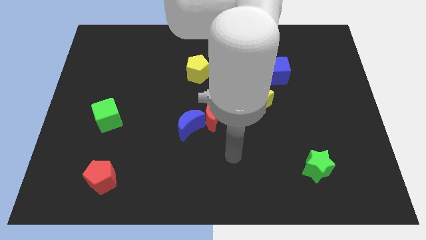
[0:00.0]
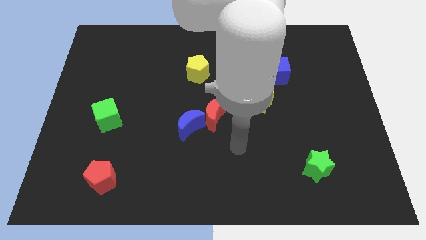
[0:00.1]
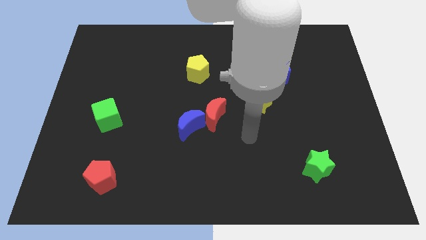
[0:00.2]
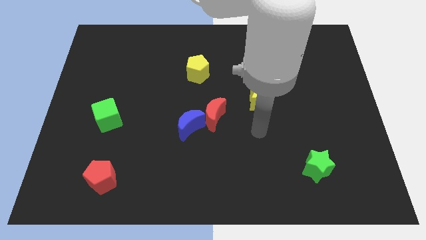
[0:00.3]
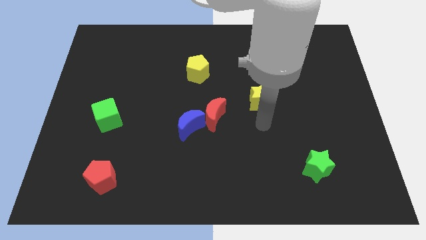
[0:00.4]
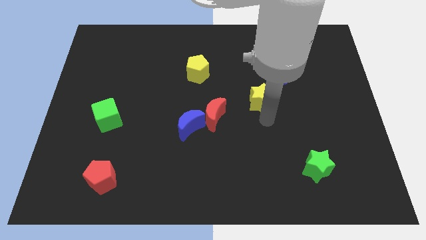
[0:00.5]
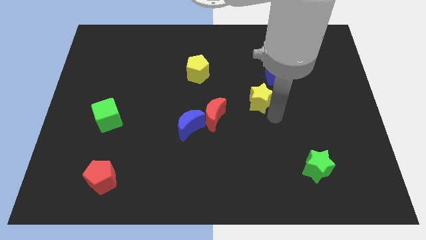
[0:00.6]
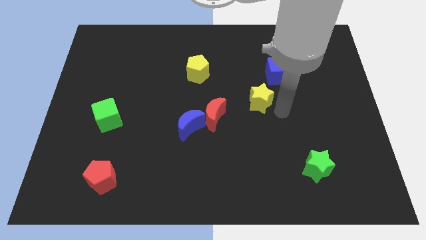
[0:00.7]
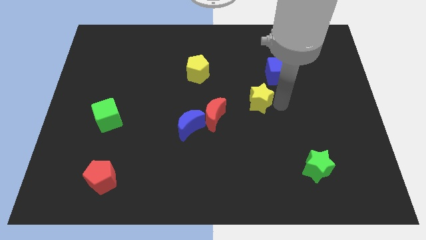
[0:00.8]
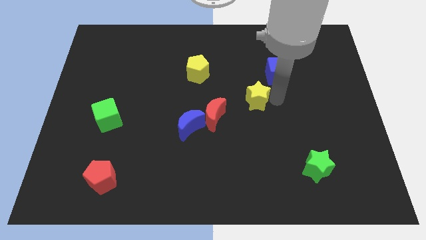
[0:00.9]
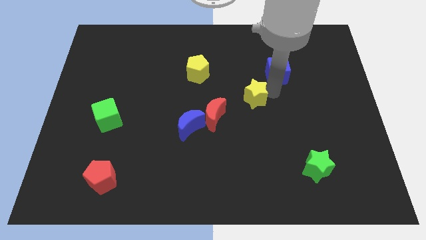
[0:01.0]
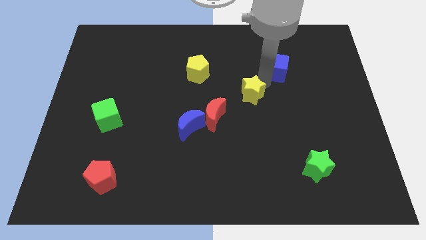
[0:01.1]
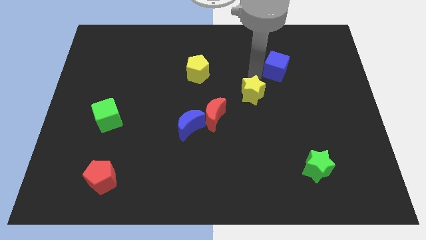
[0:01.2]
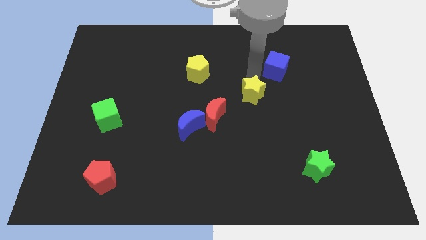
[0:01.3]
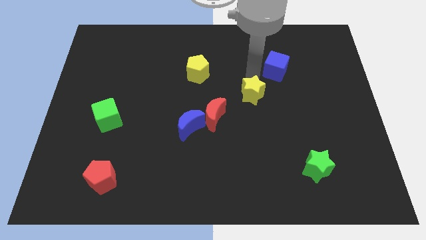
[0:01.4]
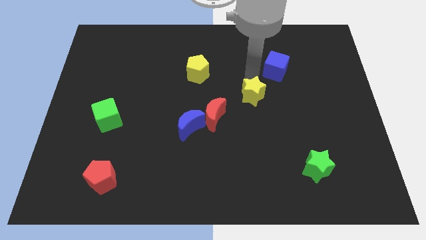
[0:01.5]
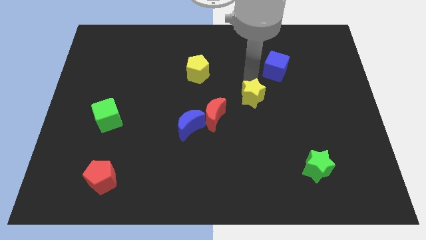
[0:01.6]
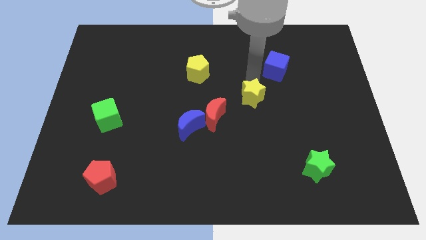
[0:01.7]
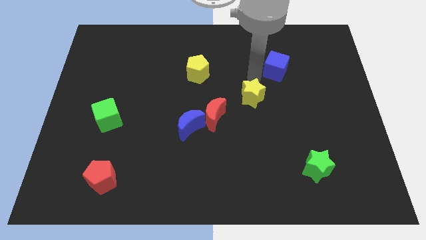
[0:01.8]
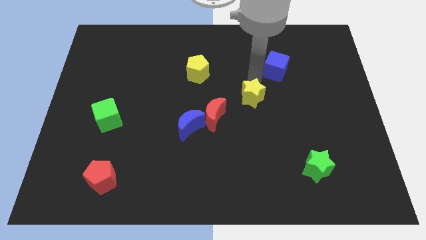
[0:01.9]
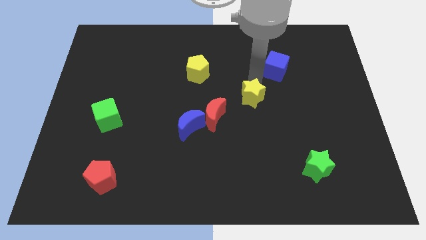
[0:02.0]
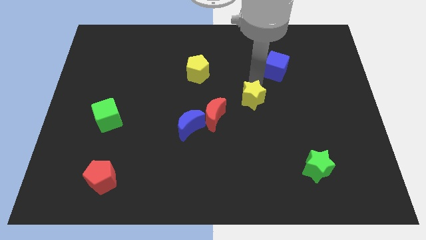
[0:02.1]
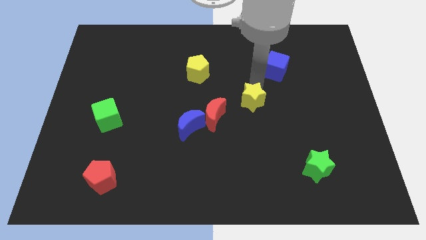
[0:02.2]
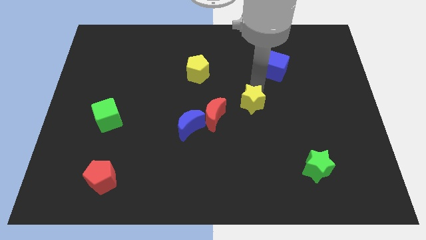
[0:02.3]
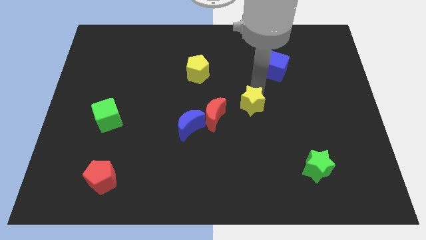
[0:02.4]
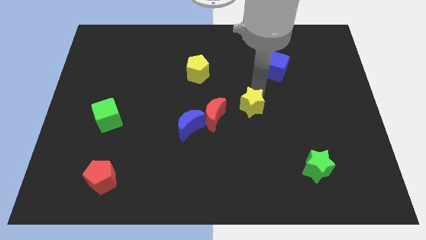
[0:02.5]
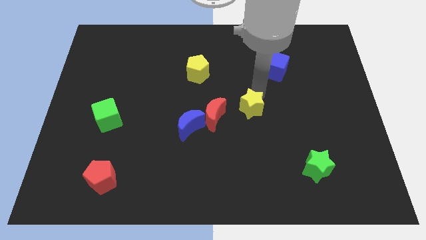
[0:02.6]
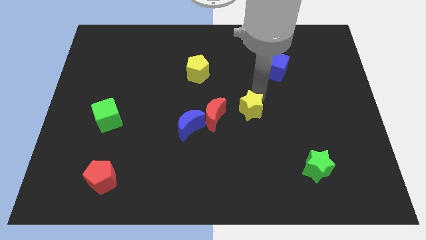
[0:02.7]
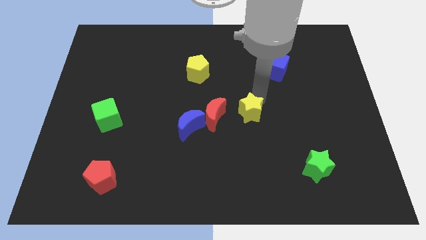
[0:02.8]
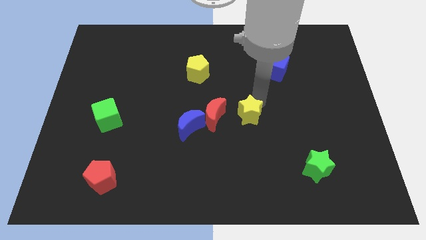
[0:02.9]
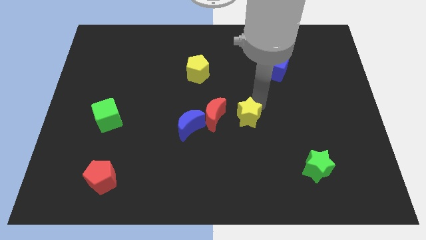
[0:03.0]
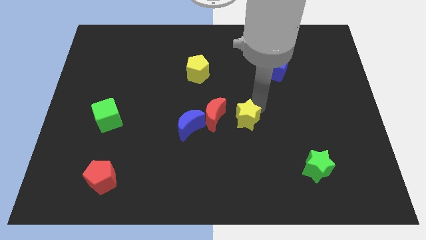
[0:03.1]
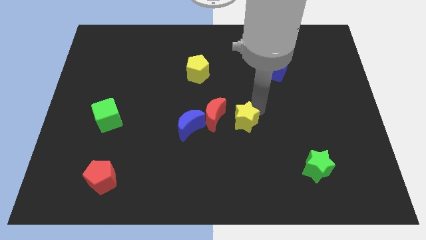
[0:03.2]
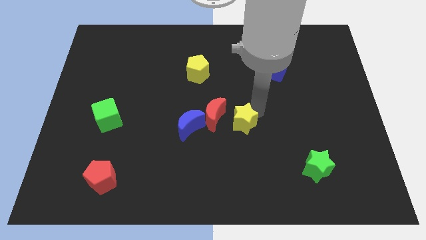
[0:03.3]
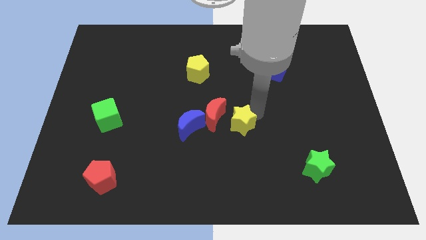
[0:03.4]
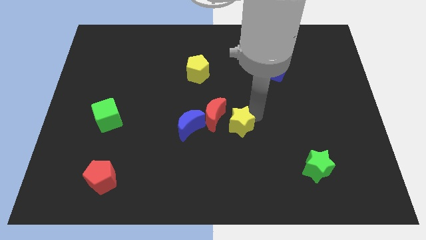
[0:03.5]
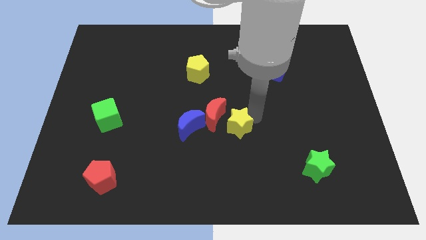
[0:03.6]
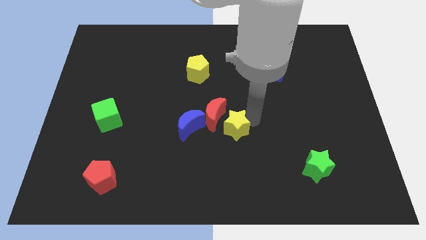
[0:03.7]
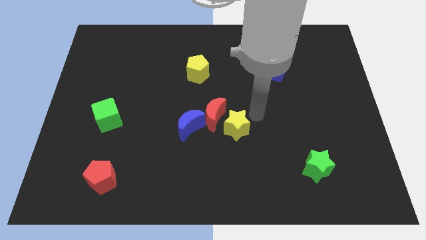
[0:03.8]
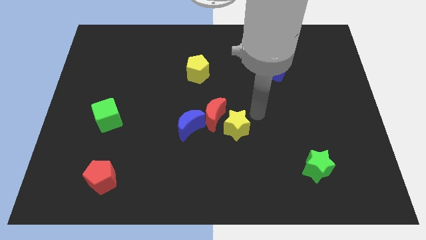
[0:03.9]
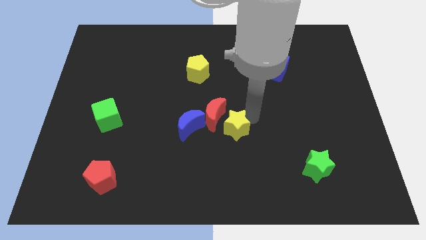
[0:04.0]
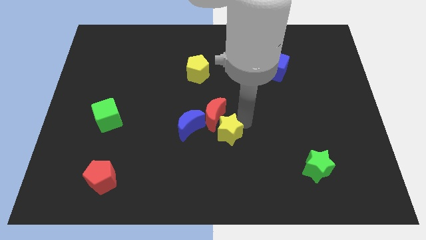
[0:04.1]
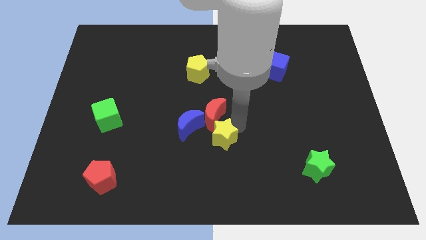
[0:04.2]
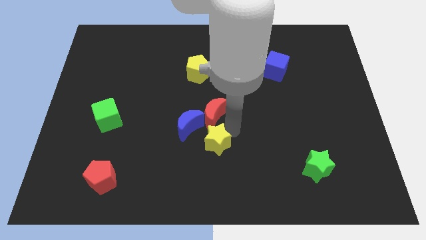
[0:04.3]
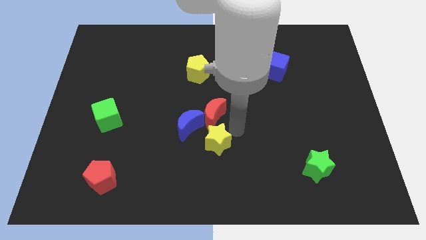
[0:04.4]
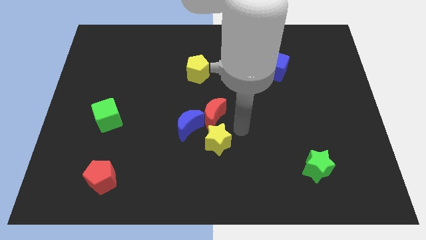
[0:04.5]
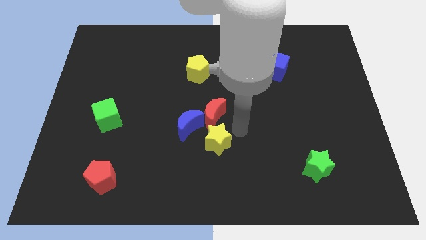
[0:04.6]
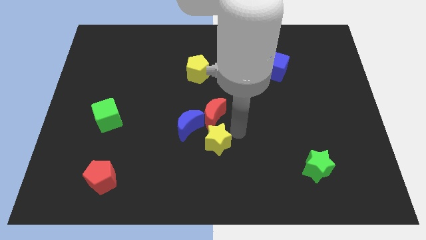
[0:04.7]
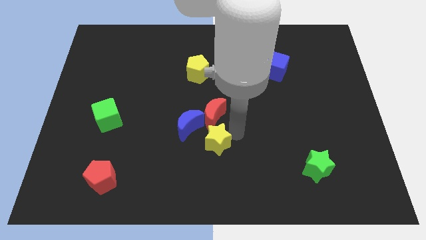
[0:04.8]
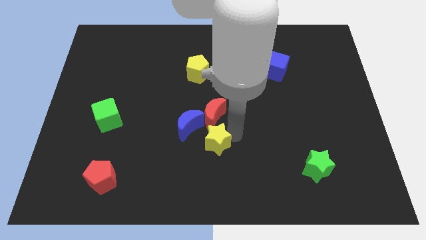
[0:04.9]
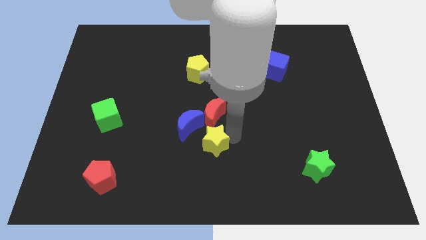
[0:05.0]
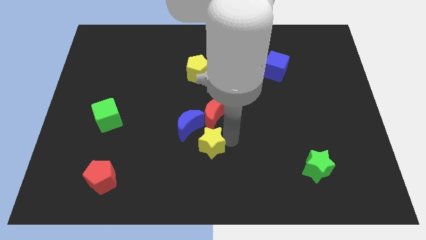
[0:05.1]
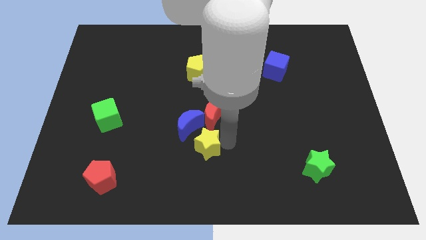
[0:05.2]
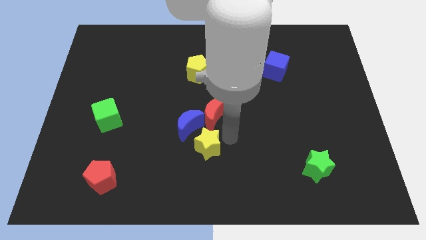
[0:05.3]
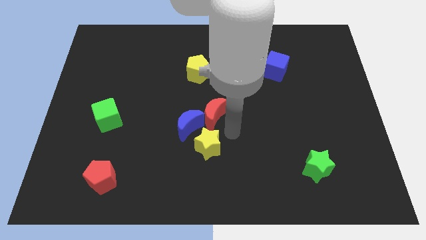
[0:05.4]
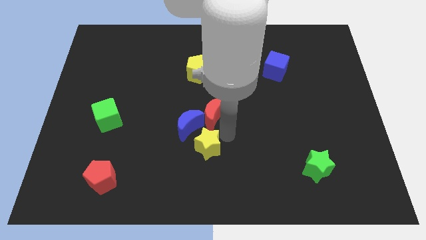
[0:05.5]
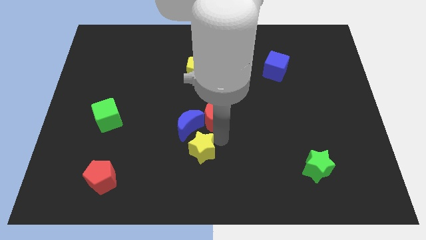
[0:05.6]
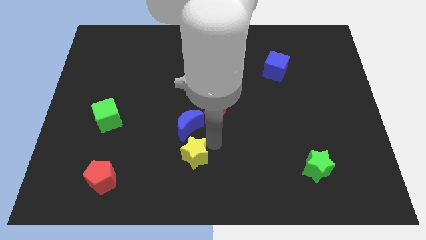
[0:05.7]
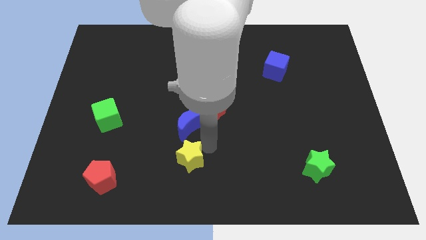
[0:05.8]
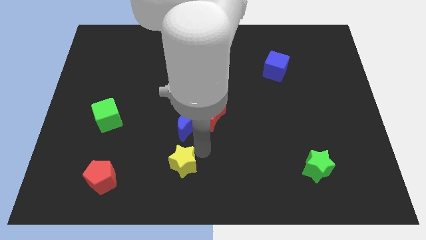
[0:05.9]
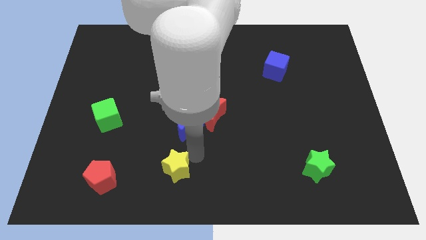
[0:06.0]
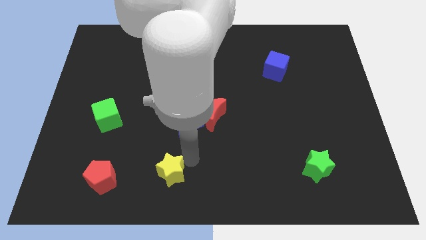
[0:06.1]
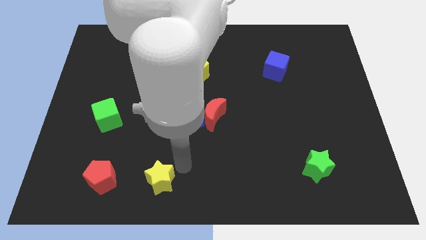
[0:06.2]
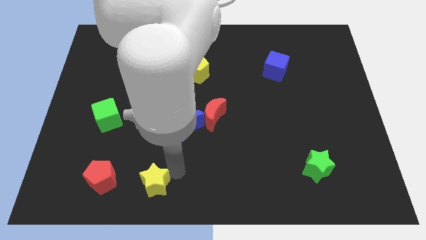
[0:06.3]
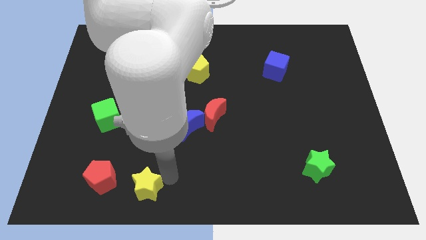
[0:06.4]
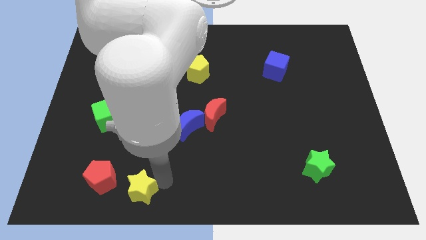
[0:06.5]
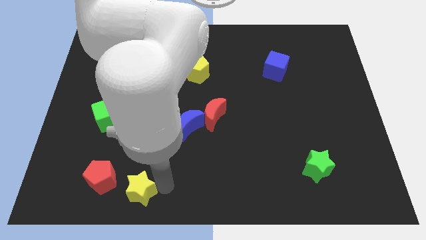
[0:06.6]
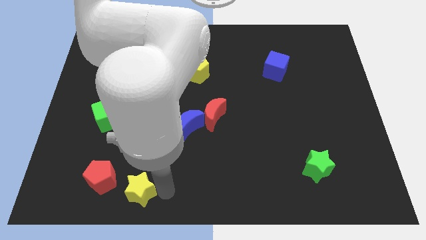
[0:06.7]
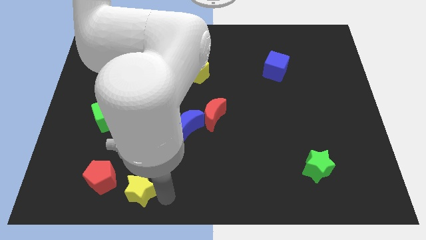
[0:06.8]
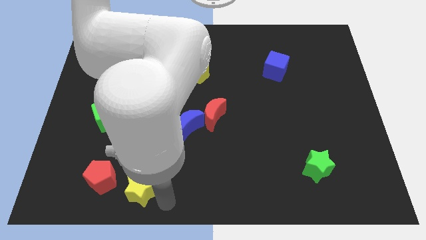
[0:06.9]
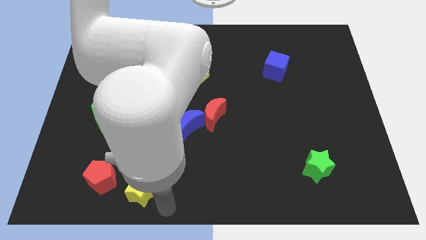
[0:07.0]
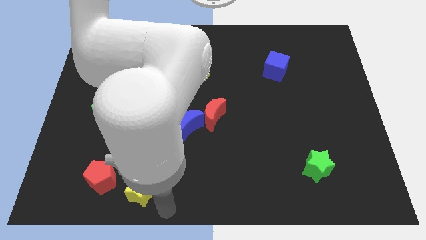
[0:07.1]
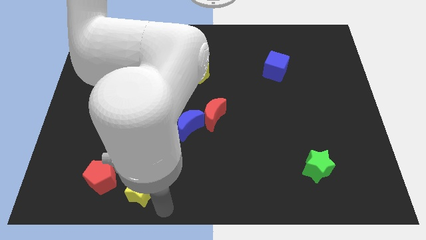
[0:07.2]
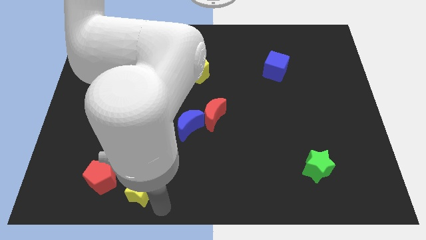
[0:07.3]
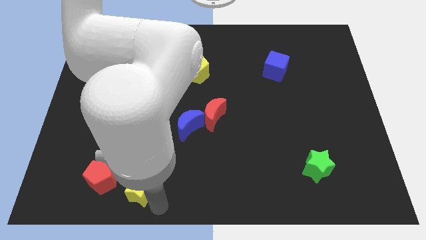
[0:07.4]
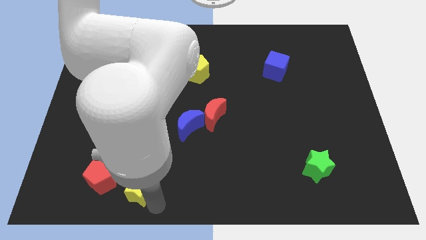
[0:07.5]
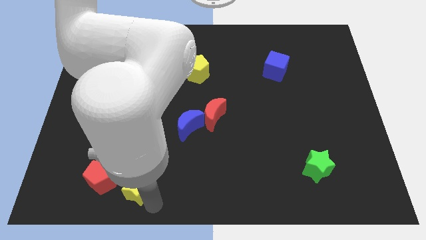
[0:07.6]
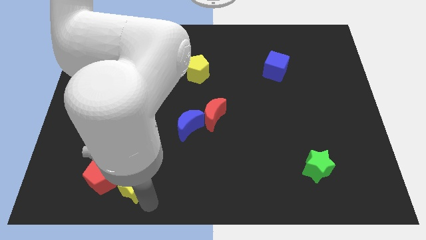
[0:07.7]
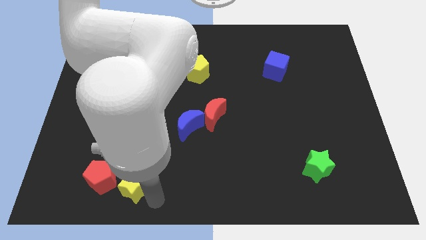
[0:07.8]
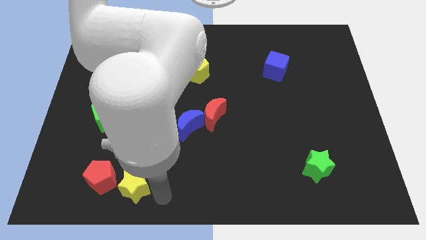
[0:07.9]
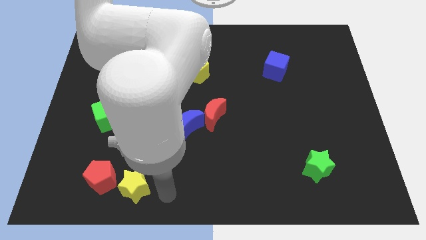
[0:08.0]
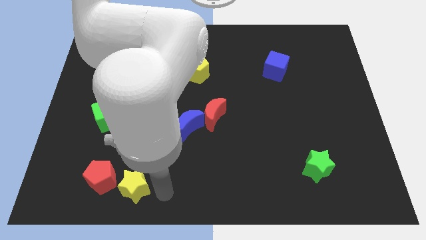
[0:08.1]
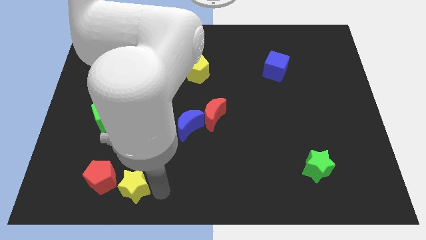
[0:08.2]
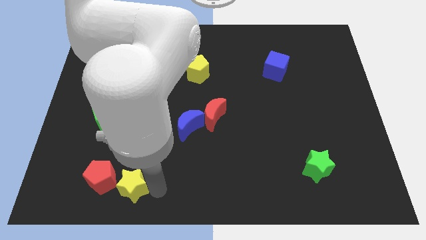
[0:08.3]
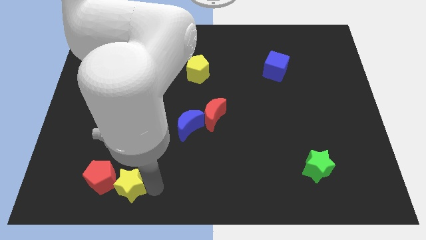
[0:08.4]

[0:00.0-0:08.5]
move the yellow star towards the red pentagon
